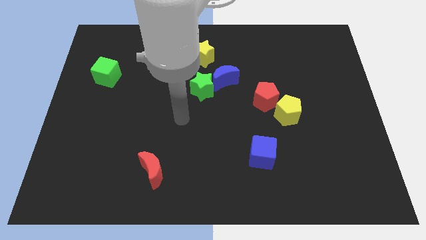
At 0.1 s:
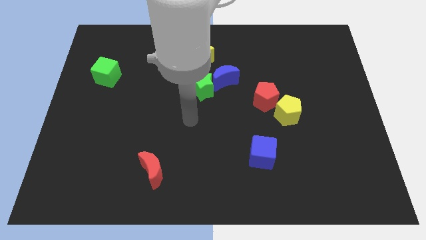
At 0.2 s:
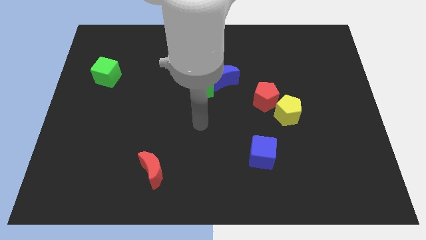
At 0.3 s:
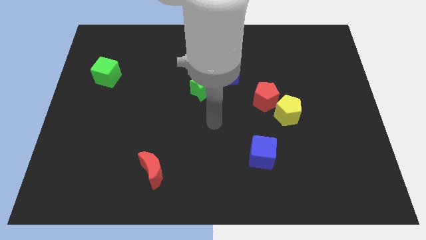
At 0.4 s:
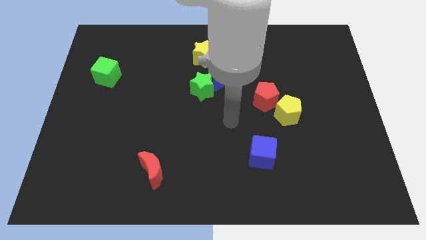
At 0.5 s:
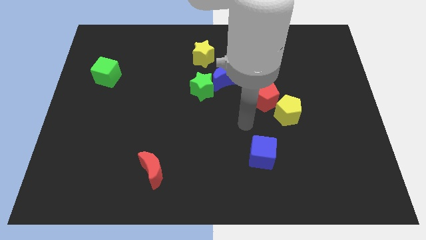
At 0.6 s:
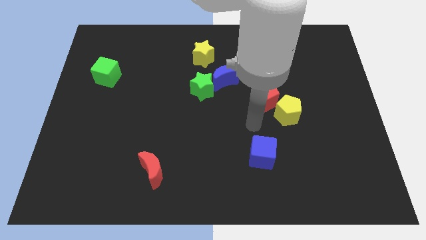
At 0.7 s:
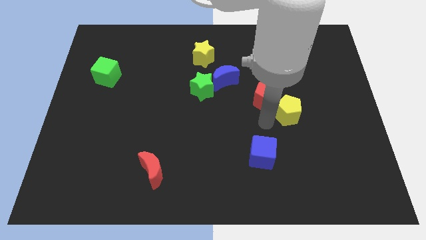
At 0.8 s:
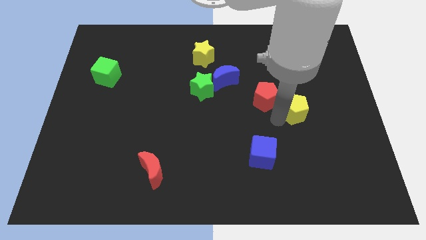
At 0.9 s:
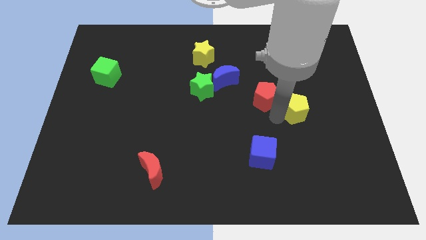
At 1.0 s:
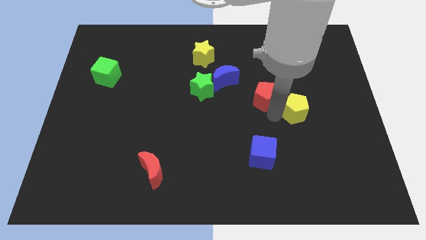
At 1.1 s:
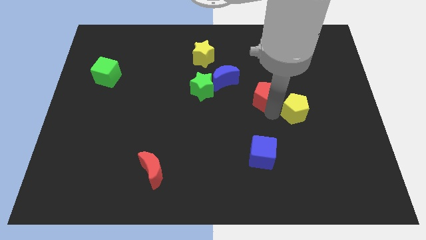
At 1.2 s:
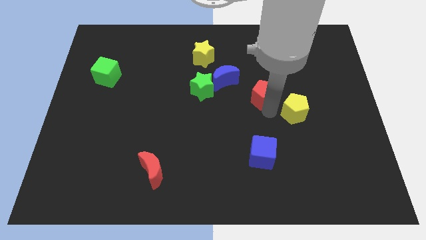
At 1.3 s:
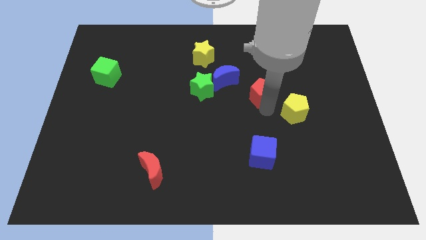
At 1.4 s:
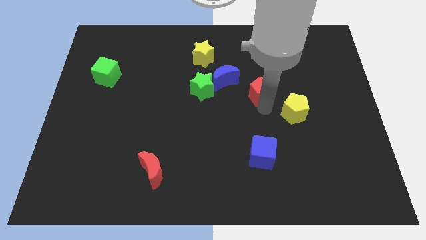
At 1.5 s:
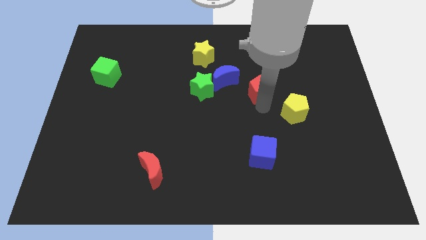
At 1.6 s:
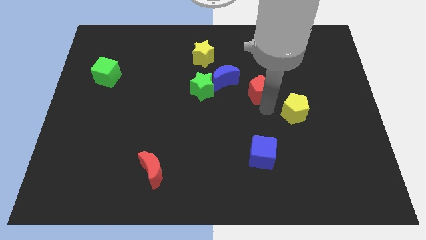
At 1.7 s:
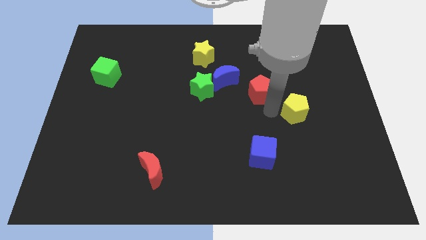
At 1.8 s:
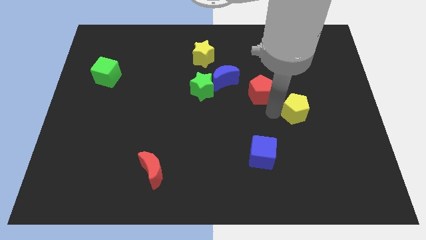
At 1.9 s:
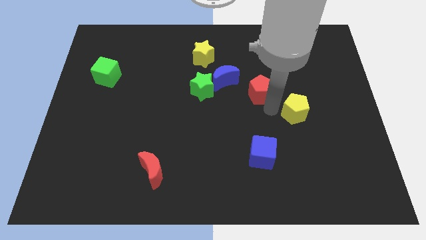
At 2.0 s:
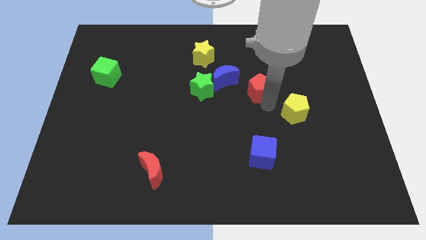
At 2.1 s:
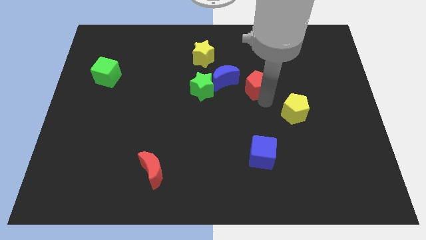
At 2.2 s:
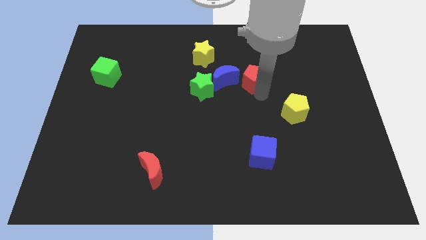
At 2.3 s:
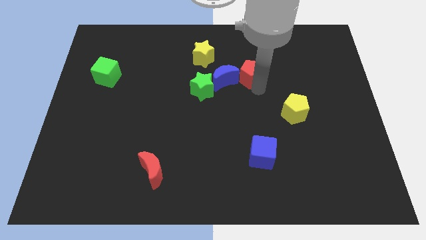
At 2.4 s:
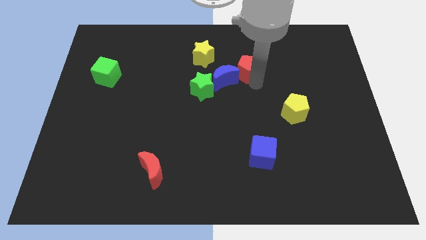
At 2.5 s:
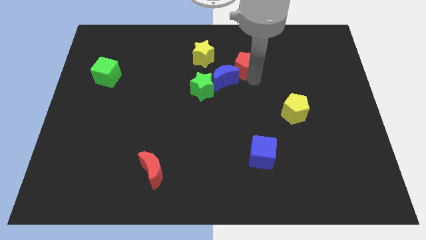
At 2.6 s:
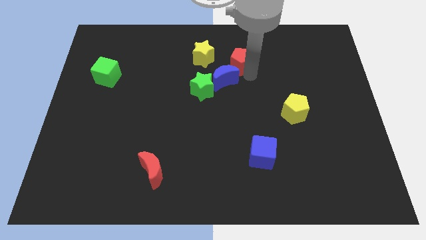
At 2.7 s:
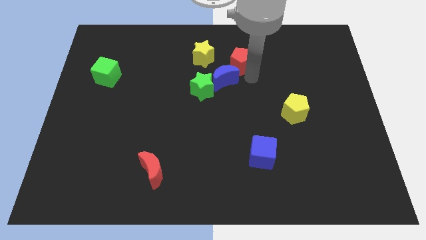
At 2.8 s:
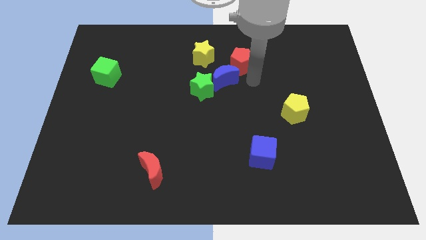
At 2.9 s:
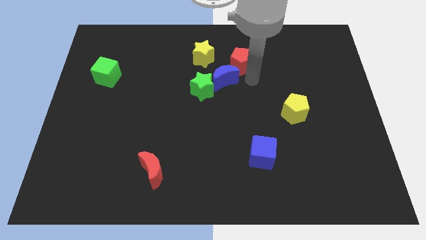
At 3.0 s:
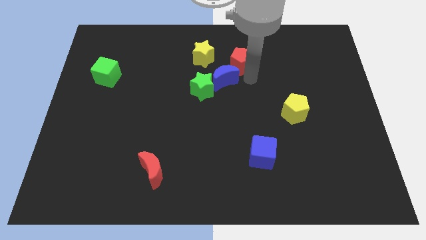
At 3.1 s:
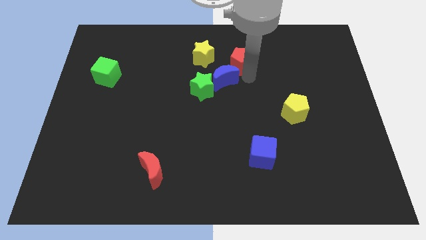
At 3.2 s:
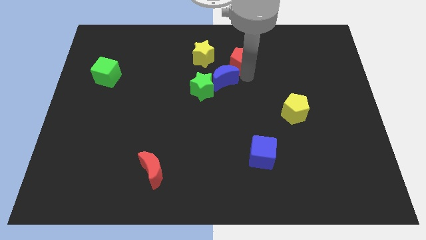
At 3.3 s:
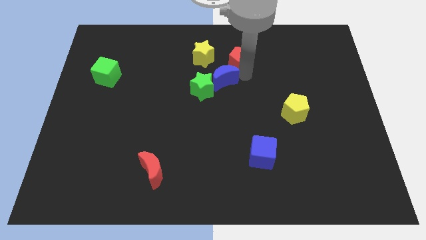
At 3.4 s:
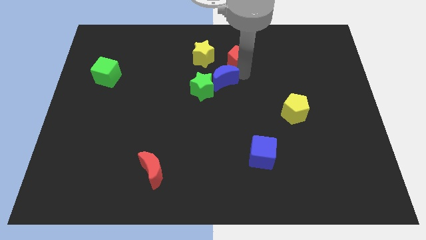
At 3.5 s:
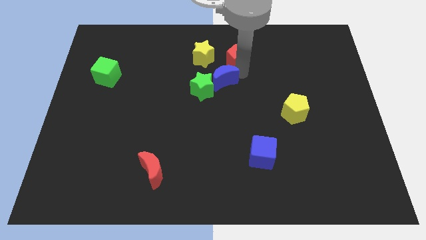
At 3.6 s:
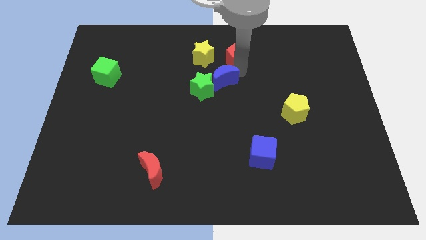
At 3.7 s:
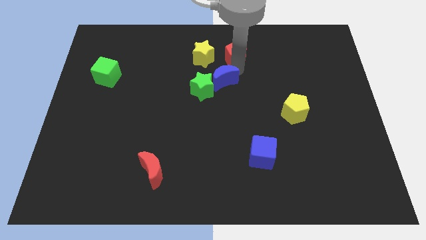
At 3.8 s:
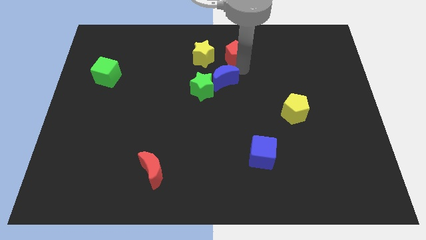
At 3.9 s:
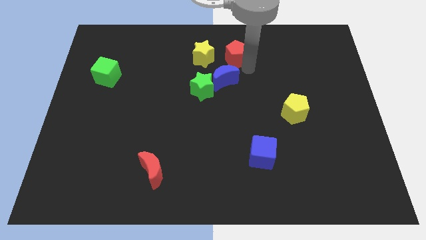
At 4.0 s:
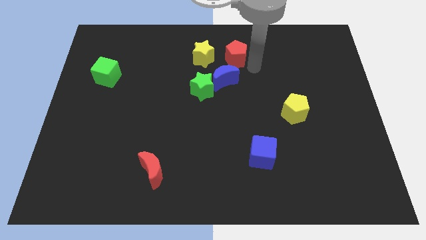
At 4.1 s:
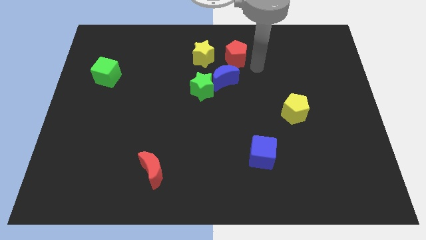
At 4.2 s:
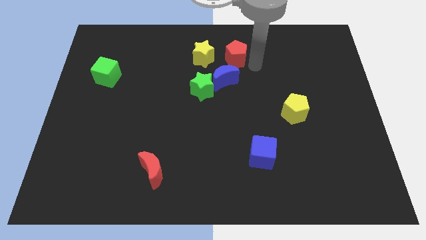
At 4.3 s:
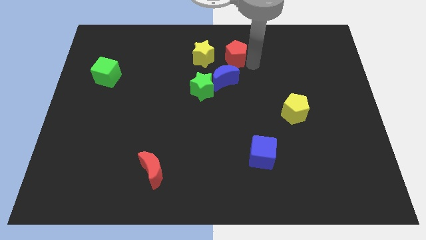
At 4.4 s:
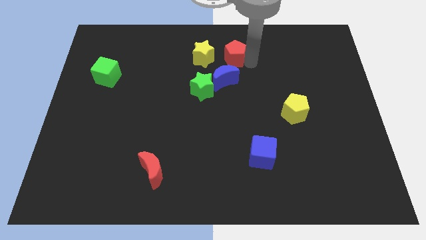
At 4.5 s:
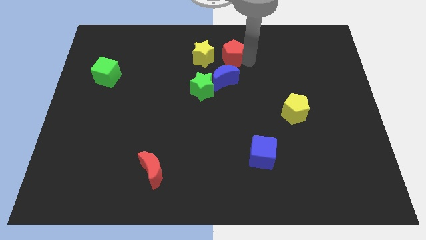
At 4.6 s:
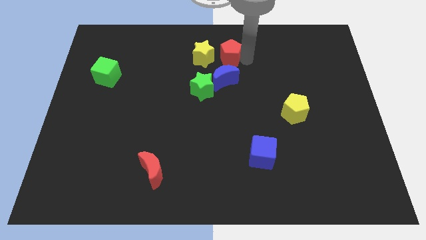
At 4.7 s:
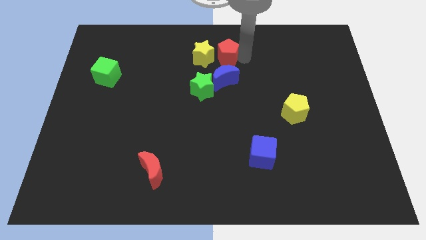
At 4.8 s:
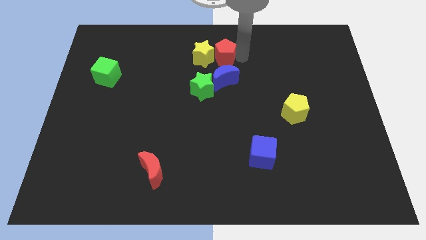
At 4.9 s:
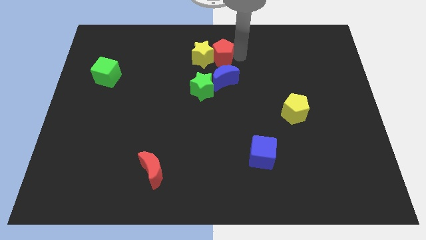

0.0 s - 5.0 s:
move the red pentagon to the top of the green star

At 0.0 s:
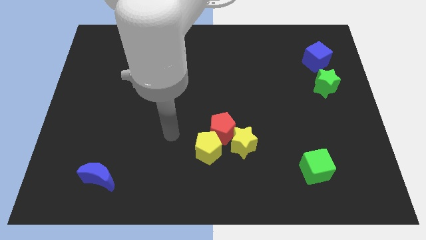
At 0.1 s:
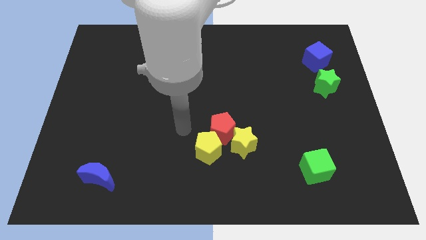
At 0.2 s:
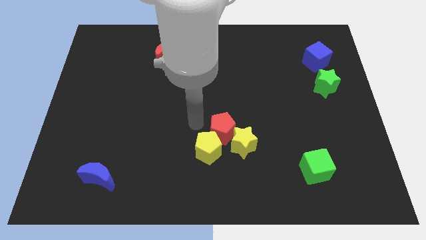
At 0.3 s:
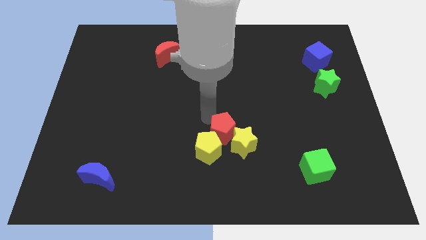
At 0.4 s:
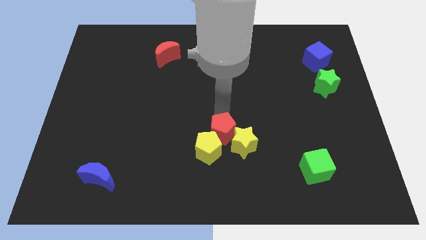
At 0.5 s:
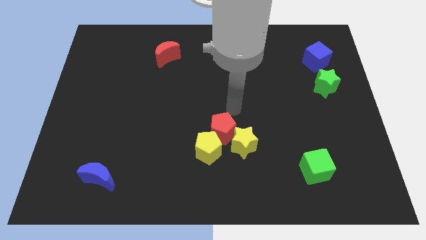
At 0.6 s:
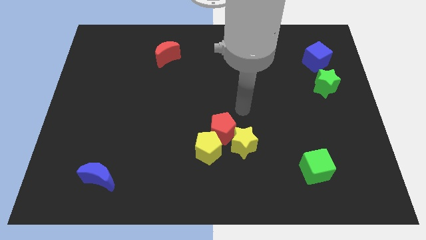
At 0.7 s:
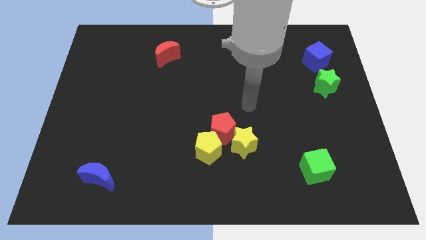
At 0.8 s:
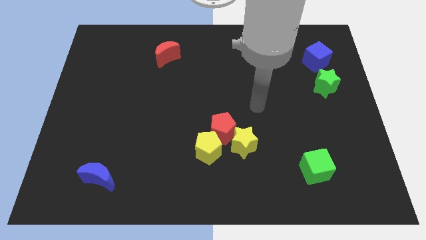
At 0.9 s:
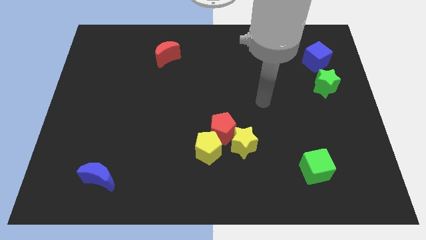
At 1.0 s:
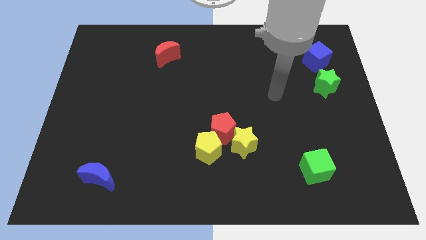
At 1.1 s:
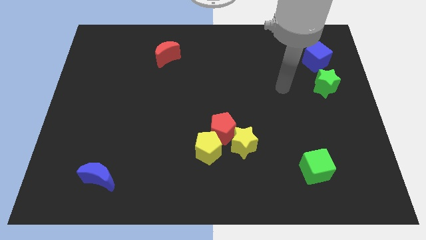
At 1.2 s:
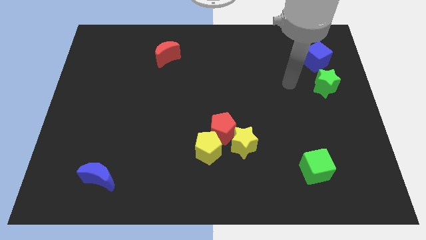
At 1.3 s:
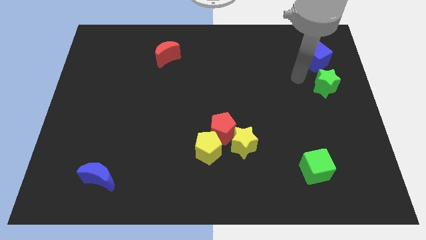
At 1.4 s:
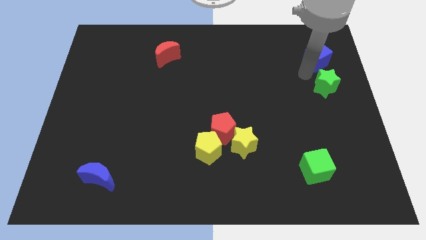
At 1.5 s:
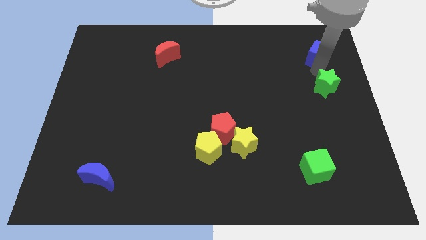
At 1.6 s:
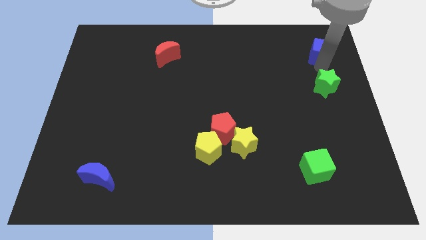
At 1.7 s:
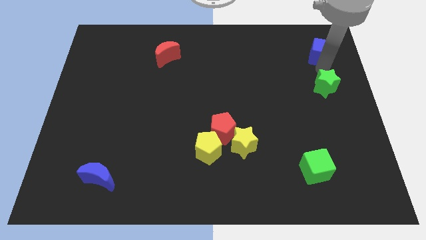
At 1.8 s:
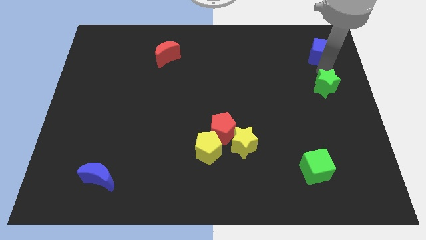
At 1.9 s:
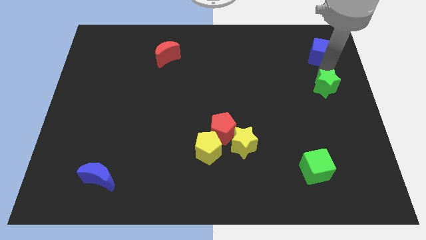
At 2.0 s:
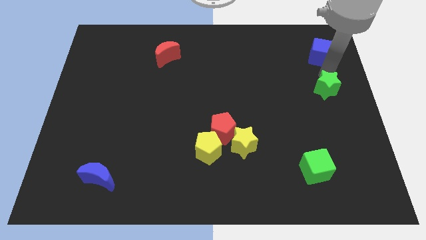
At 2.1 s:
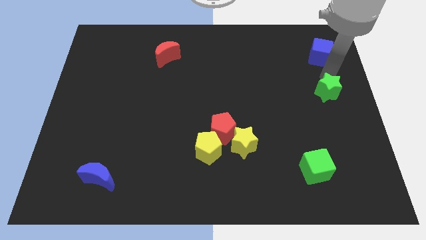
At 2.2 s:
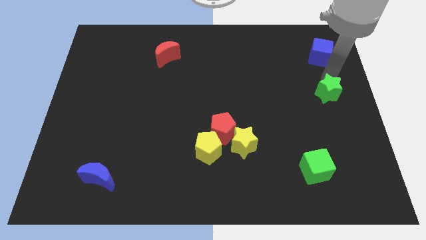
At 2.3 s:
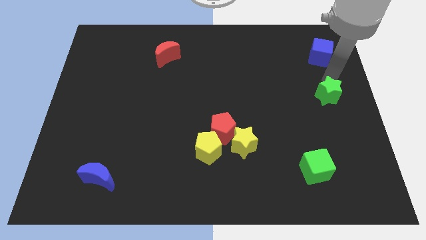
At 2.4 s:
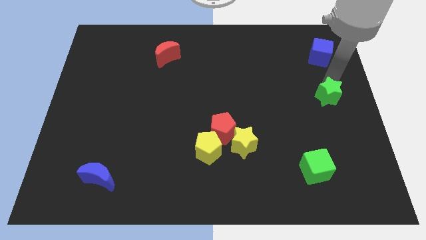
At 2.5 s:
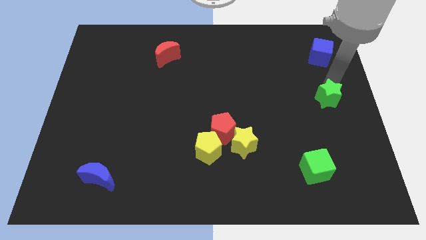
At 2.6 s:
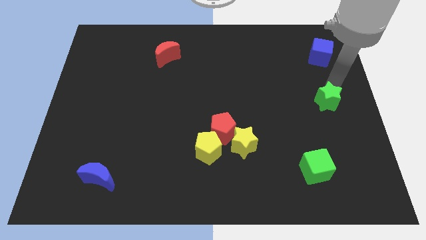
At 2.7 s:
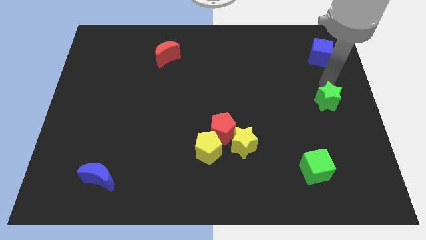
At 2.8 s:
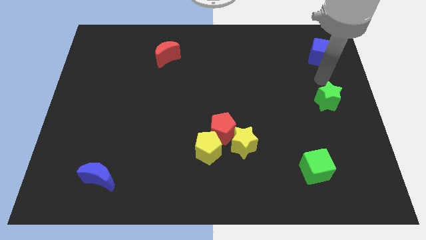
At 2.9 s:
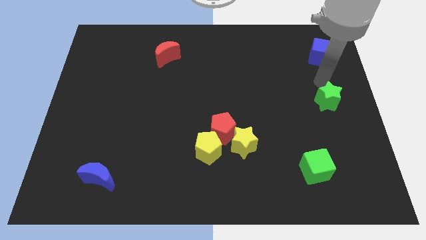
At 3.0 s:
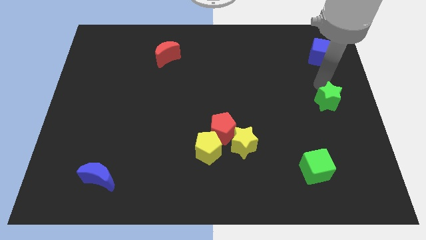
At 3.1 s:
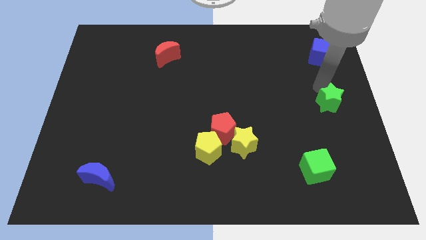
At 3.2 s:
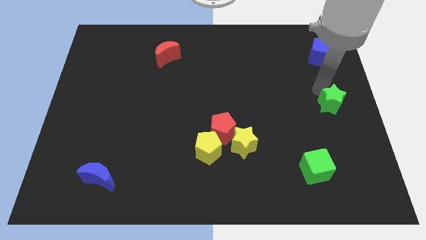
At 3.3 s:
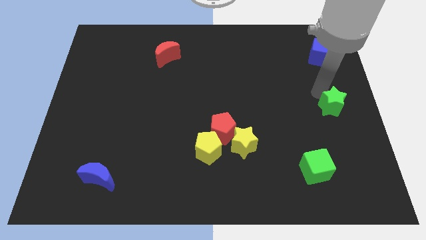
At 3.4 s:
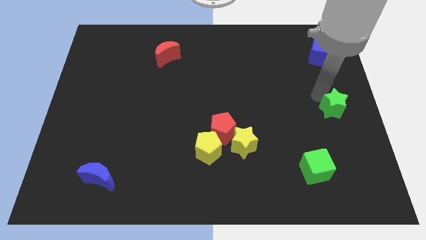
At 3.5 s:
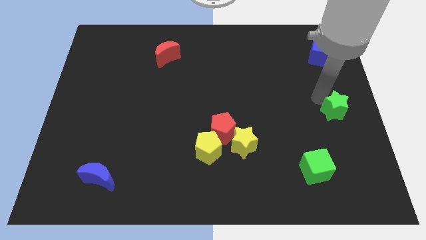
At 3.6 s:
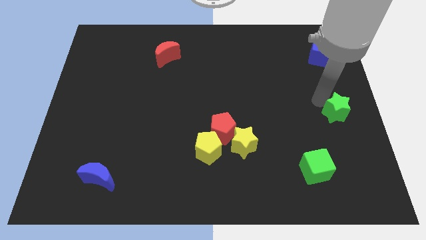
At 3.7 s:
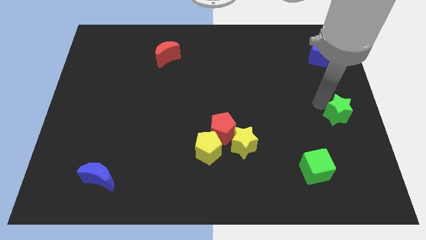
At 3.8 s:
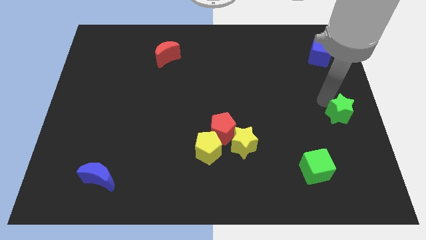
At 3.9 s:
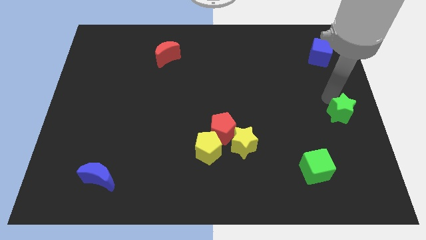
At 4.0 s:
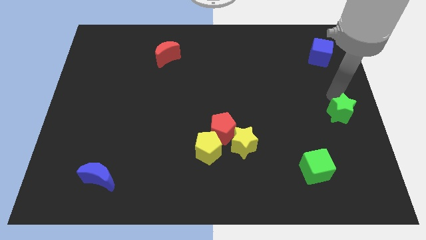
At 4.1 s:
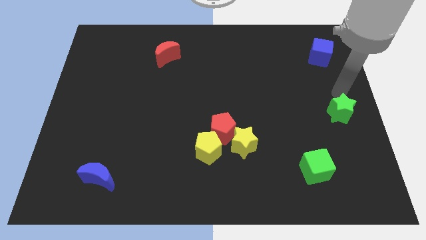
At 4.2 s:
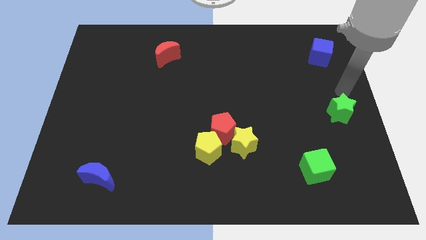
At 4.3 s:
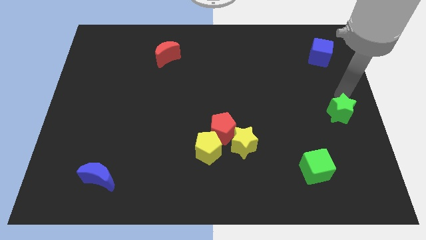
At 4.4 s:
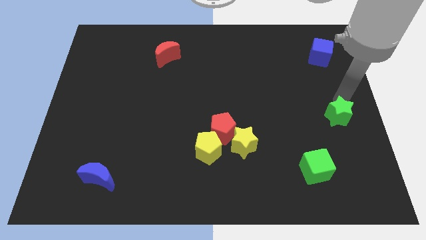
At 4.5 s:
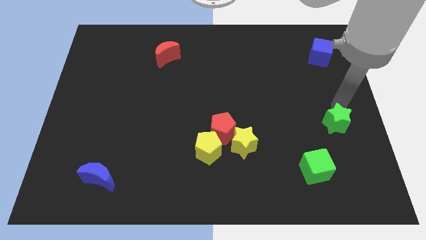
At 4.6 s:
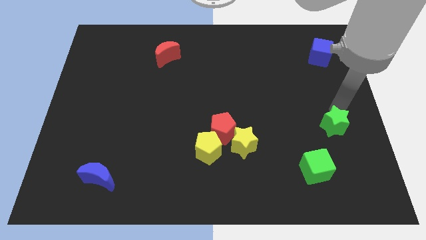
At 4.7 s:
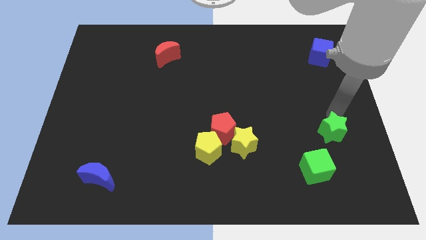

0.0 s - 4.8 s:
move the green star diagonally up and to the right of the green cube
